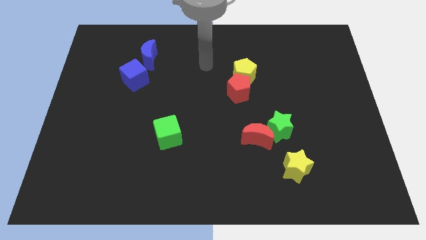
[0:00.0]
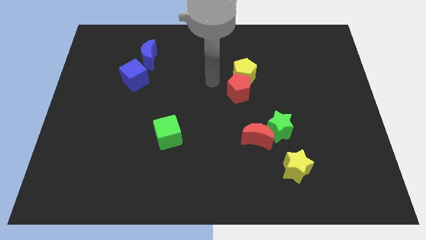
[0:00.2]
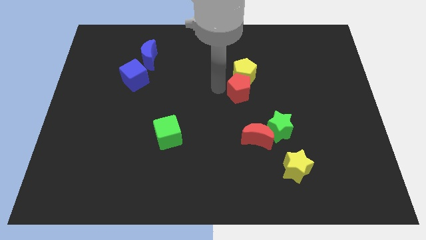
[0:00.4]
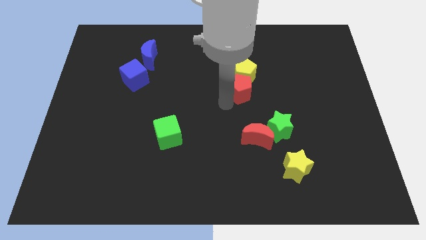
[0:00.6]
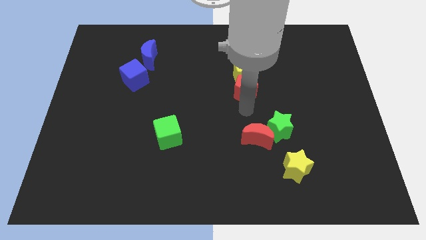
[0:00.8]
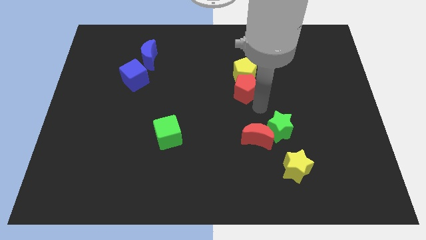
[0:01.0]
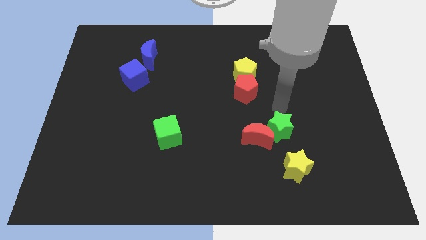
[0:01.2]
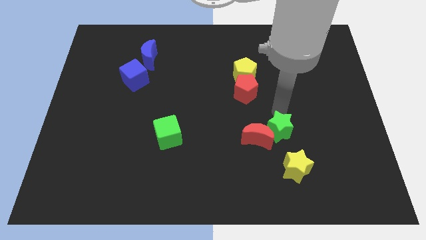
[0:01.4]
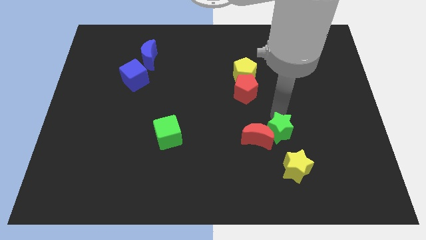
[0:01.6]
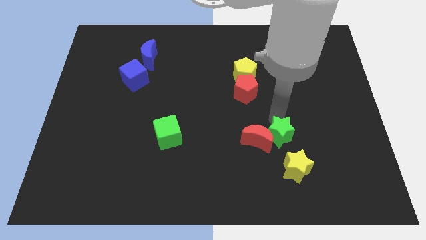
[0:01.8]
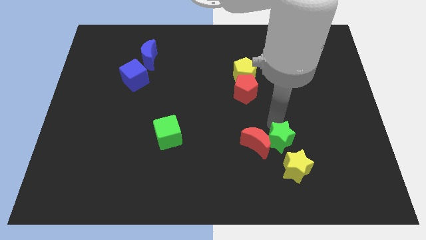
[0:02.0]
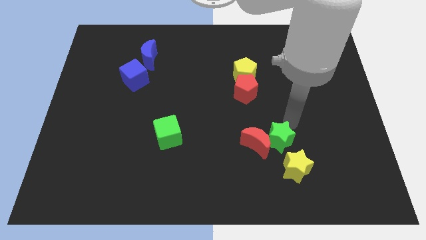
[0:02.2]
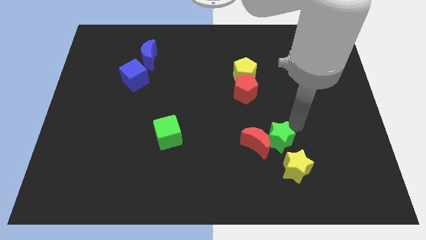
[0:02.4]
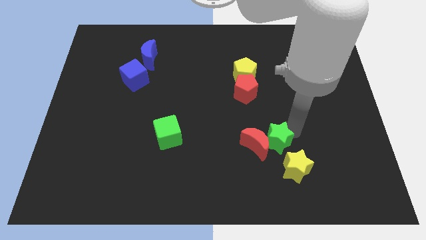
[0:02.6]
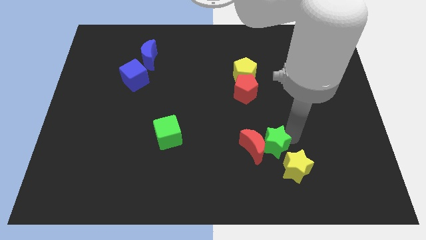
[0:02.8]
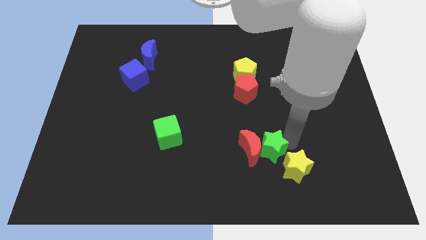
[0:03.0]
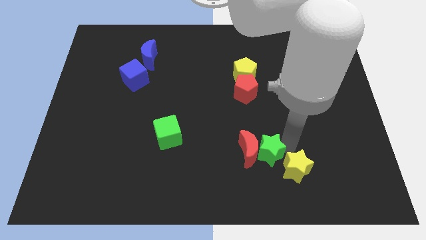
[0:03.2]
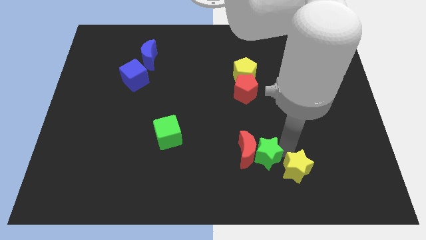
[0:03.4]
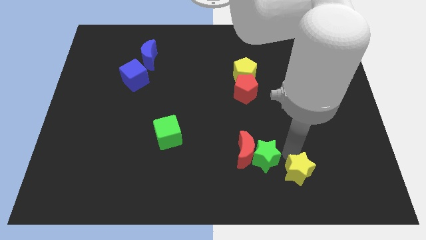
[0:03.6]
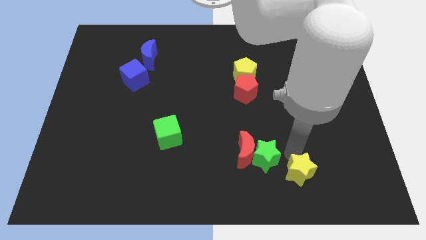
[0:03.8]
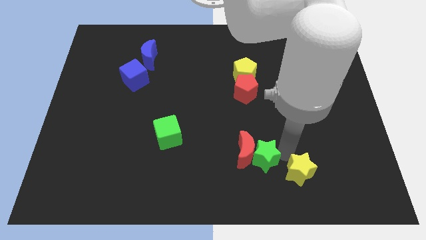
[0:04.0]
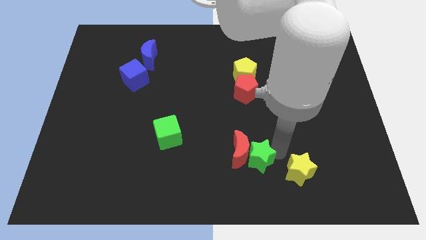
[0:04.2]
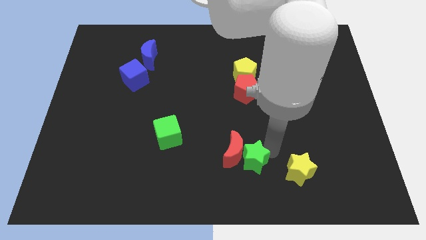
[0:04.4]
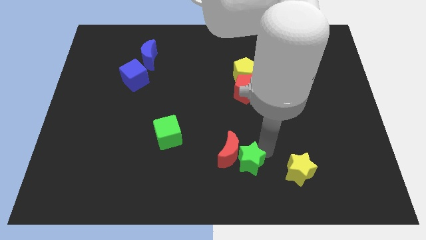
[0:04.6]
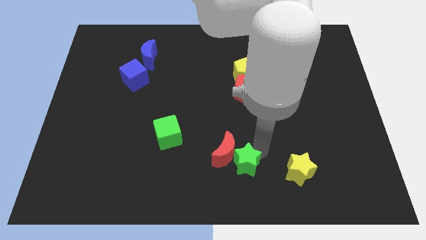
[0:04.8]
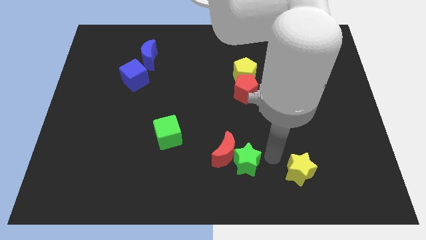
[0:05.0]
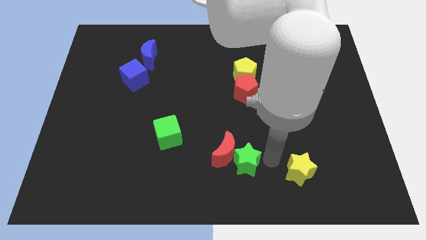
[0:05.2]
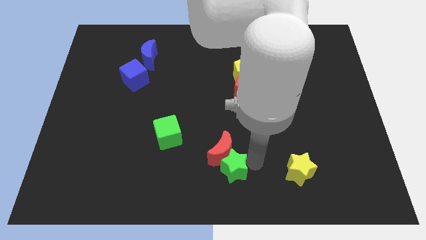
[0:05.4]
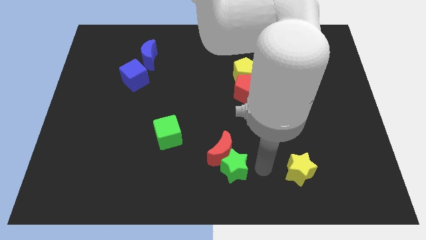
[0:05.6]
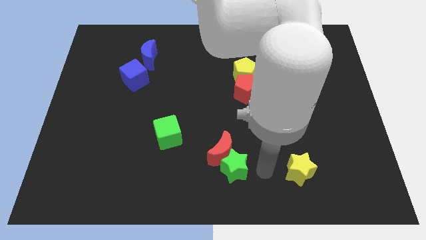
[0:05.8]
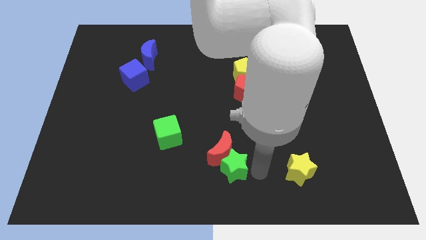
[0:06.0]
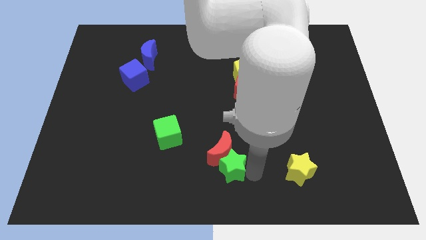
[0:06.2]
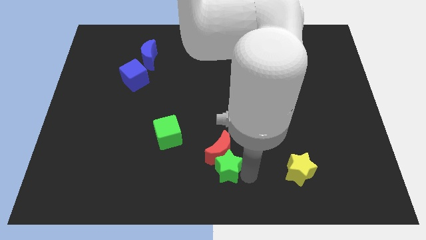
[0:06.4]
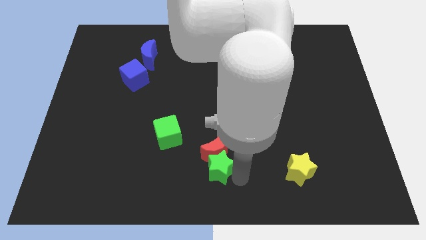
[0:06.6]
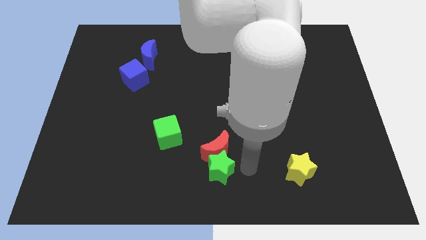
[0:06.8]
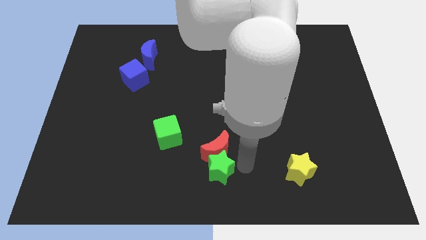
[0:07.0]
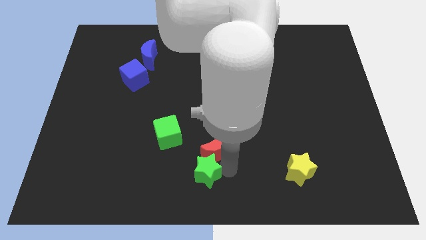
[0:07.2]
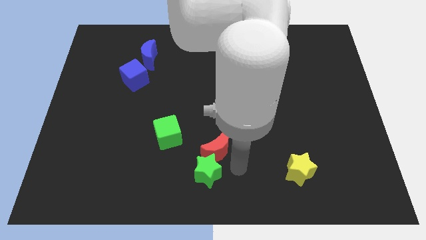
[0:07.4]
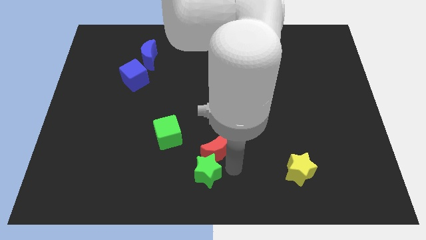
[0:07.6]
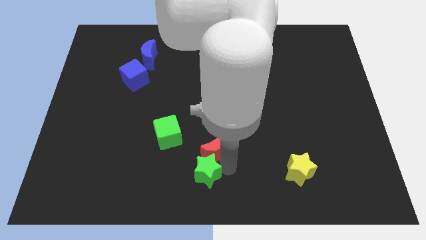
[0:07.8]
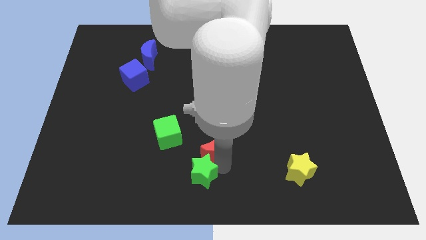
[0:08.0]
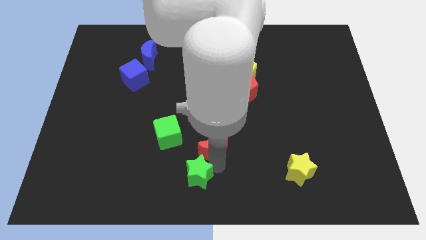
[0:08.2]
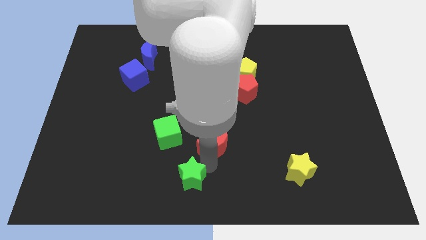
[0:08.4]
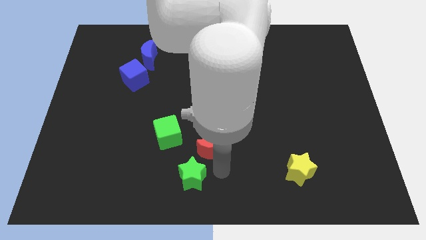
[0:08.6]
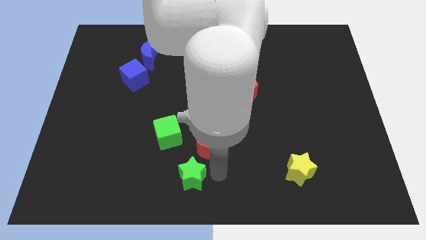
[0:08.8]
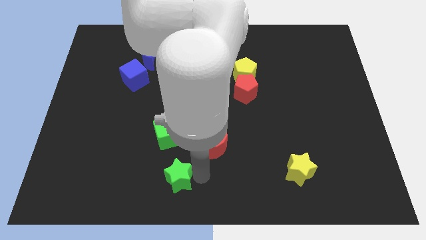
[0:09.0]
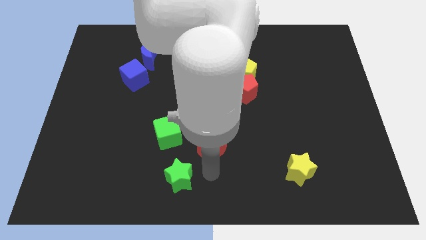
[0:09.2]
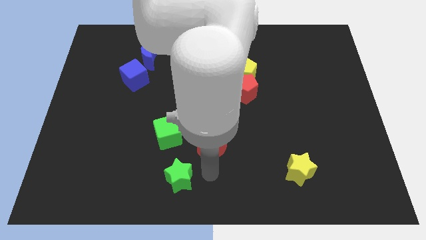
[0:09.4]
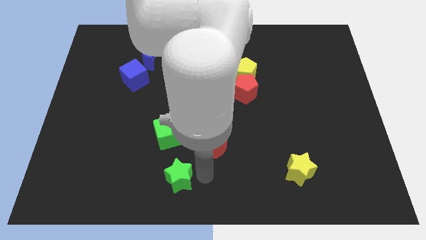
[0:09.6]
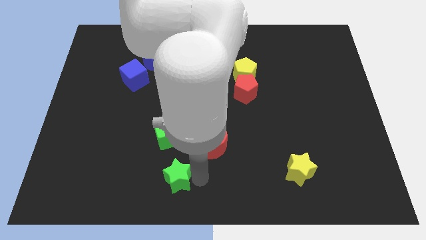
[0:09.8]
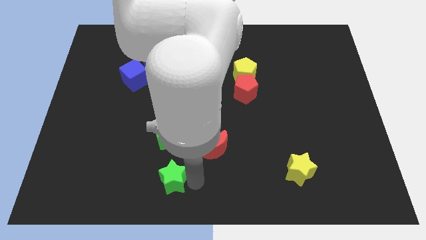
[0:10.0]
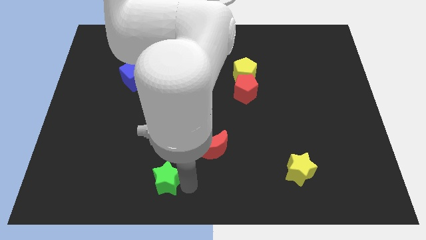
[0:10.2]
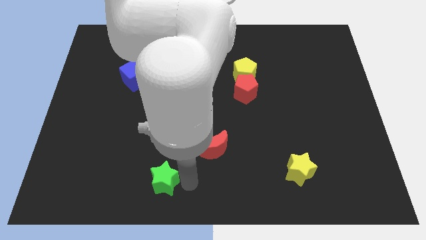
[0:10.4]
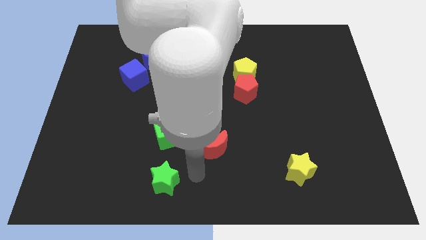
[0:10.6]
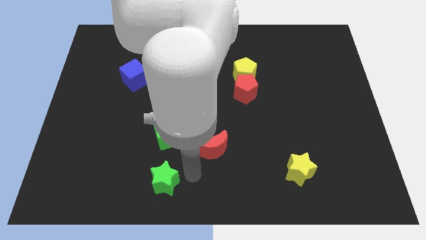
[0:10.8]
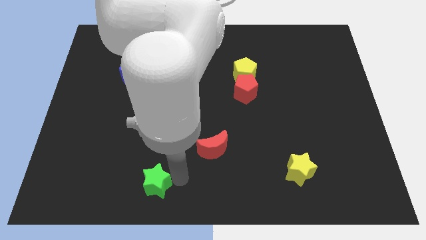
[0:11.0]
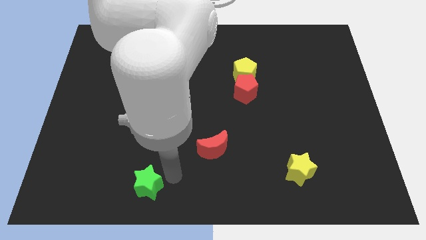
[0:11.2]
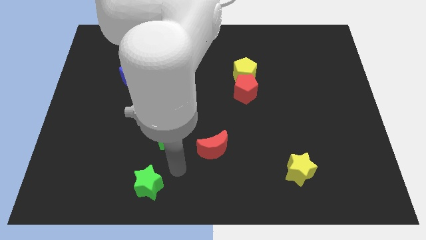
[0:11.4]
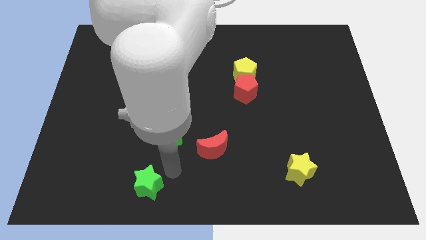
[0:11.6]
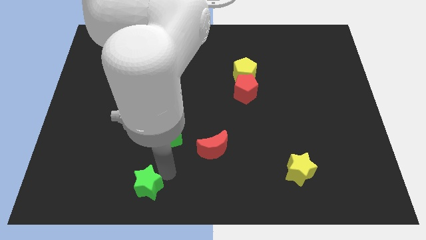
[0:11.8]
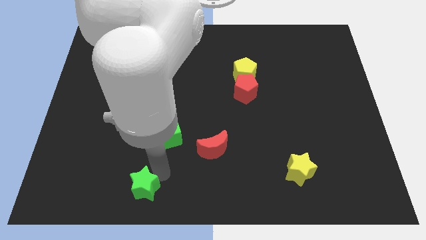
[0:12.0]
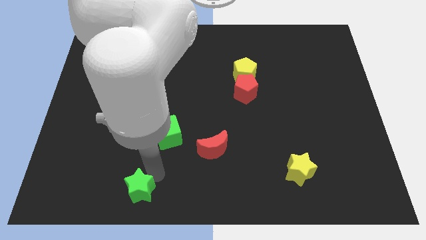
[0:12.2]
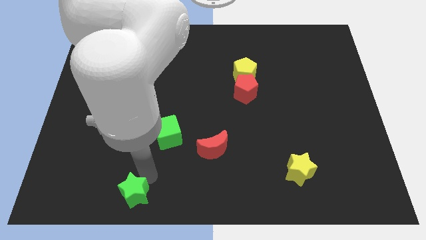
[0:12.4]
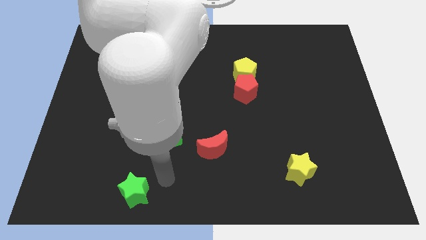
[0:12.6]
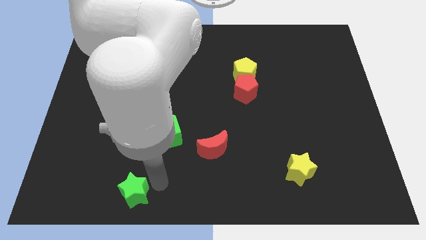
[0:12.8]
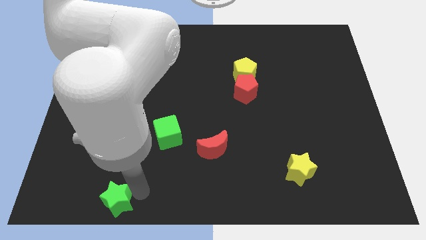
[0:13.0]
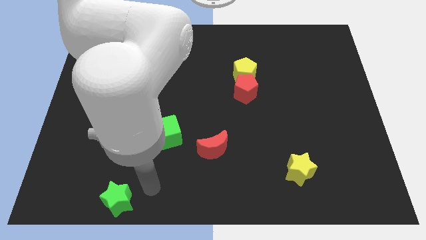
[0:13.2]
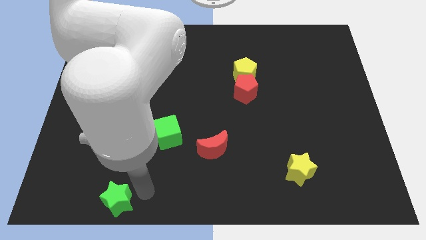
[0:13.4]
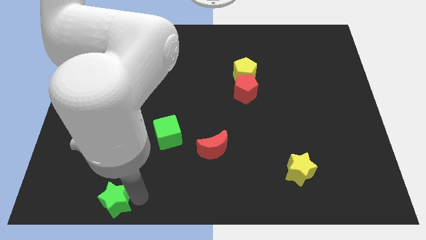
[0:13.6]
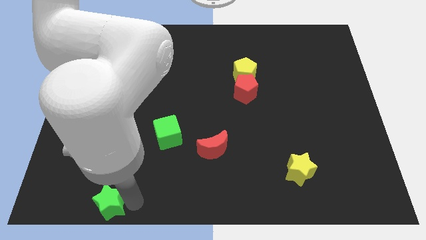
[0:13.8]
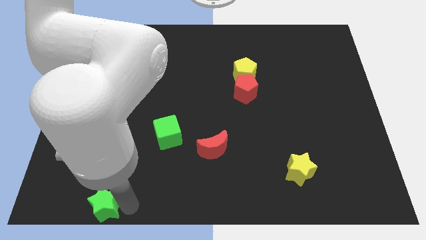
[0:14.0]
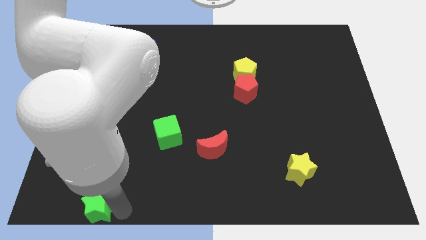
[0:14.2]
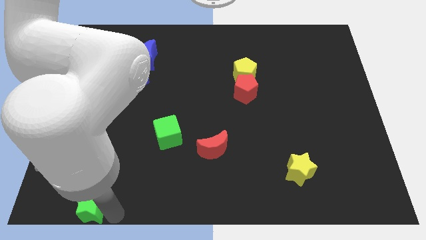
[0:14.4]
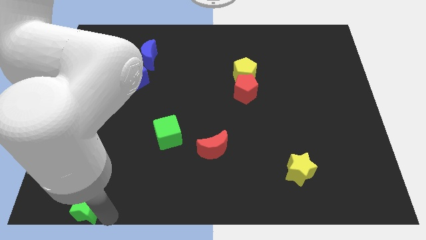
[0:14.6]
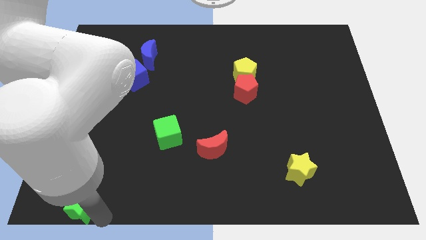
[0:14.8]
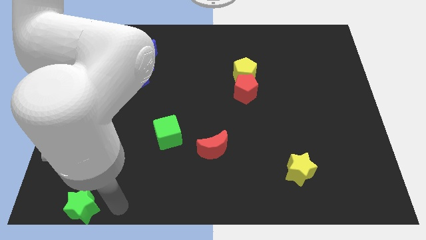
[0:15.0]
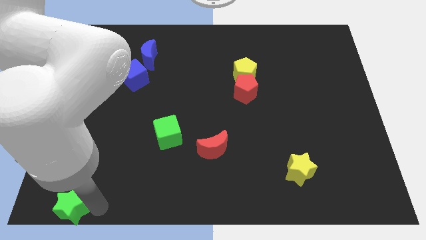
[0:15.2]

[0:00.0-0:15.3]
slide the green star to the bottom left corner
